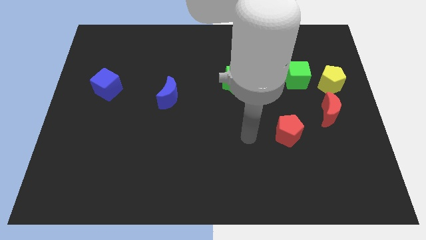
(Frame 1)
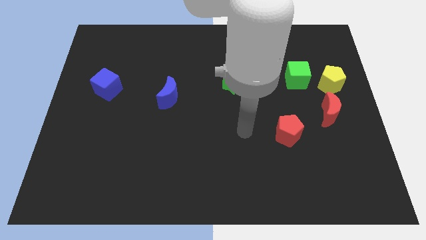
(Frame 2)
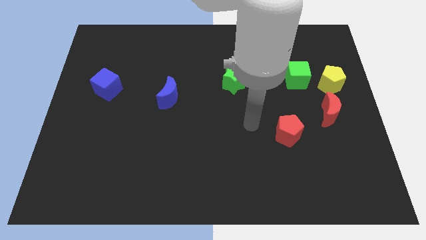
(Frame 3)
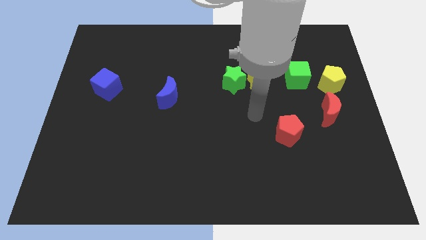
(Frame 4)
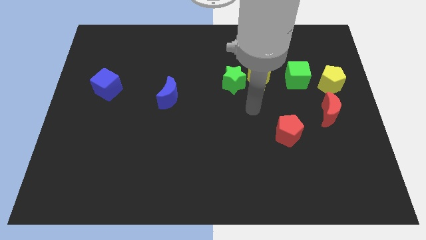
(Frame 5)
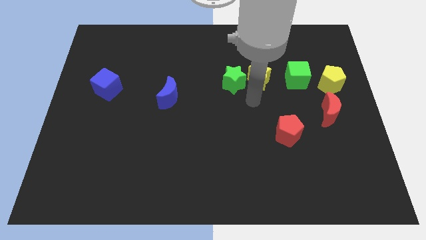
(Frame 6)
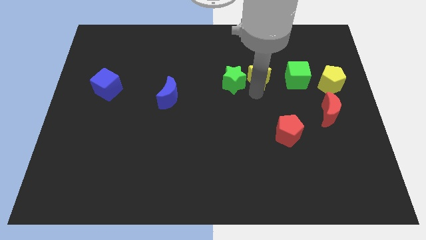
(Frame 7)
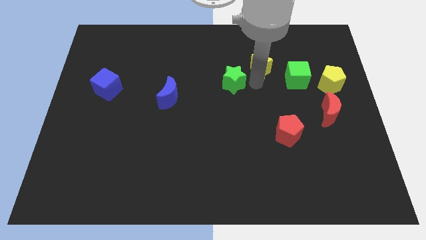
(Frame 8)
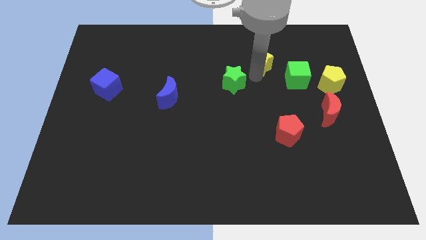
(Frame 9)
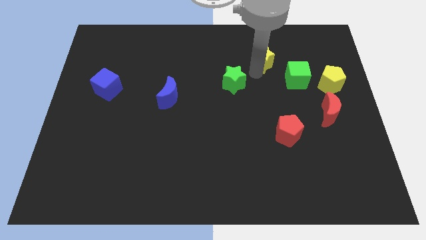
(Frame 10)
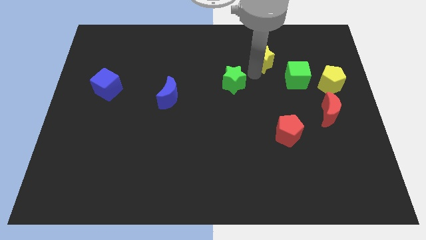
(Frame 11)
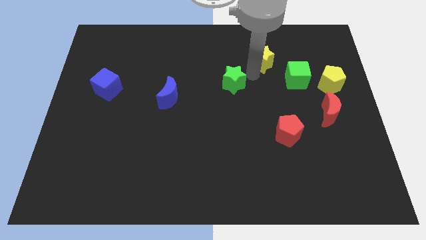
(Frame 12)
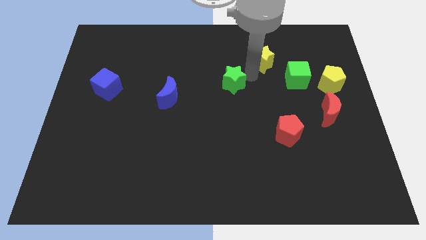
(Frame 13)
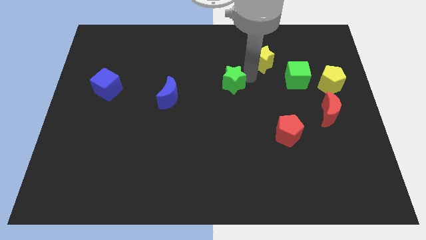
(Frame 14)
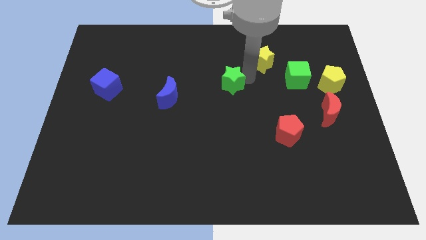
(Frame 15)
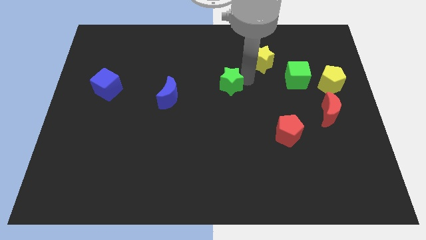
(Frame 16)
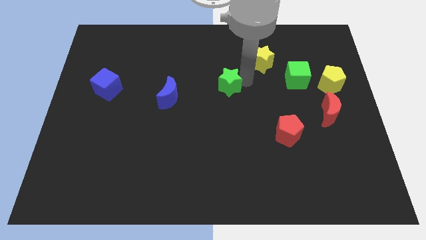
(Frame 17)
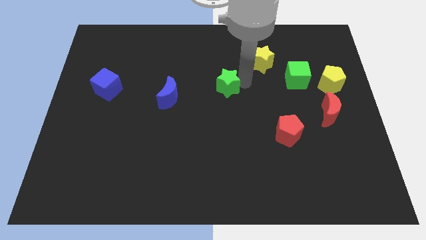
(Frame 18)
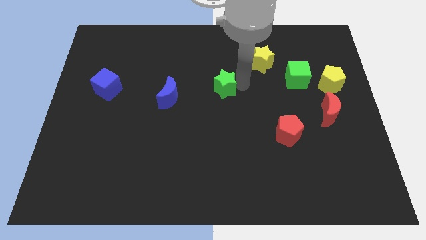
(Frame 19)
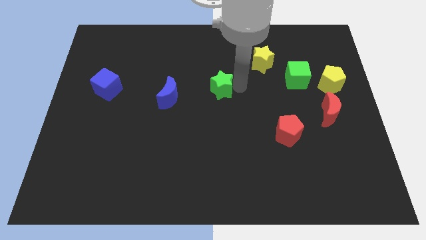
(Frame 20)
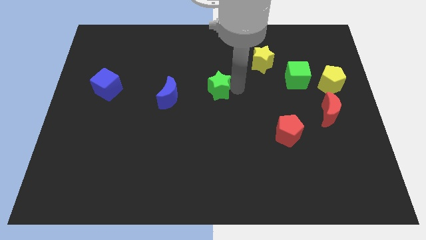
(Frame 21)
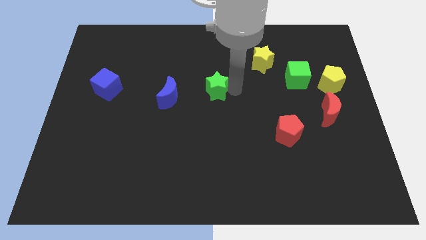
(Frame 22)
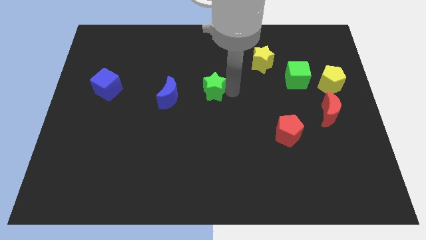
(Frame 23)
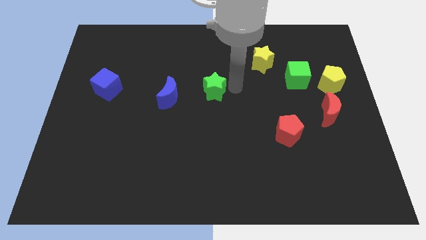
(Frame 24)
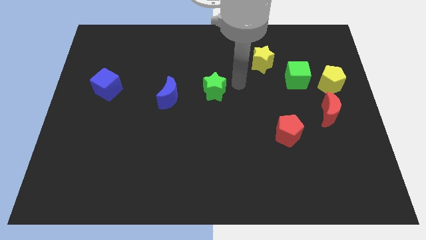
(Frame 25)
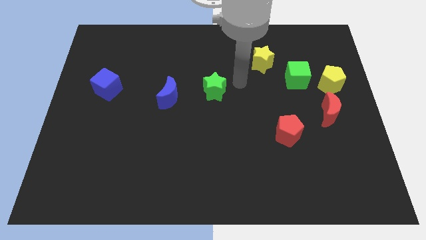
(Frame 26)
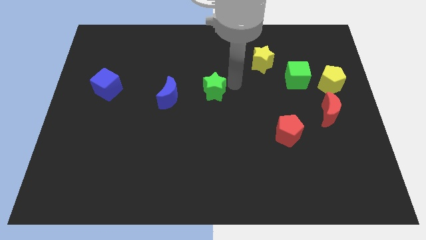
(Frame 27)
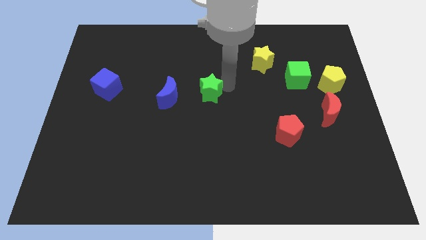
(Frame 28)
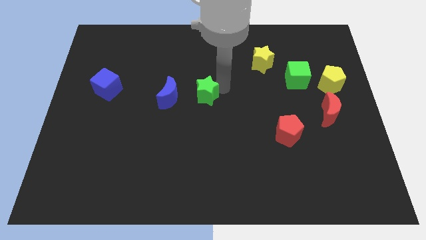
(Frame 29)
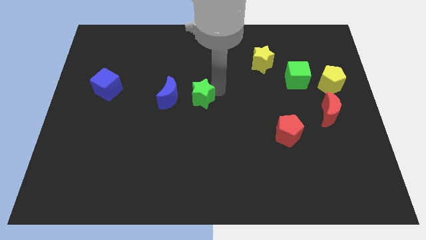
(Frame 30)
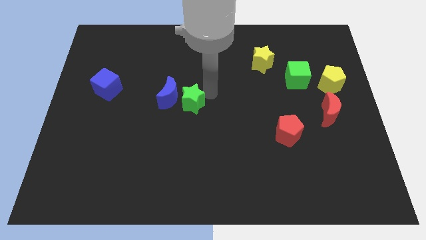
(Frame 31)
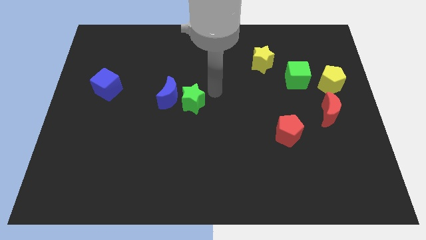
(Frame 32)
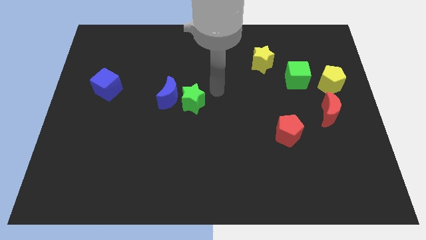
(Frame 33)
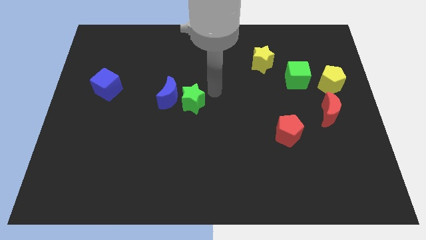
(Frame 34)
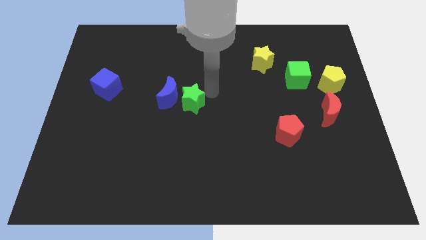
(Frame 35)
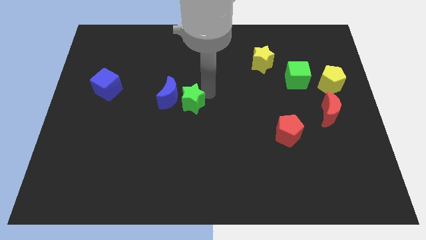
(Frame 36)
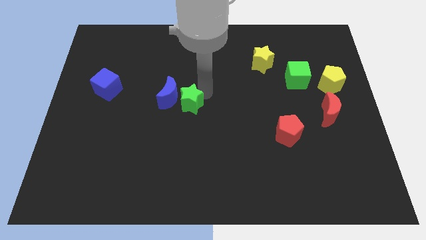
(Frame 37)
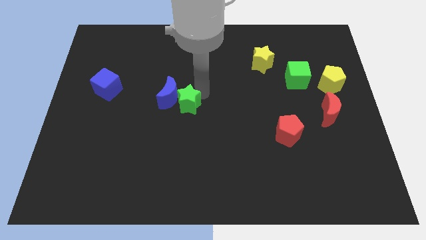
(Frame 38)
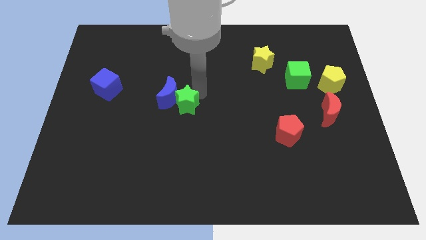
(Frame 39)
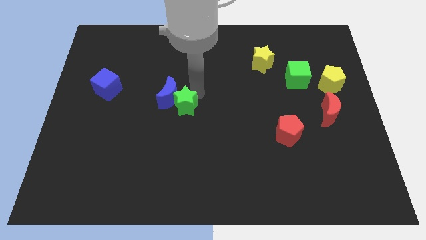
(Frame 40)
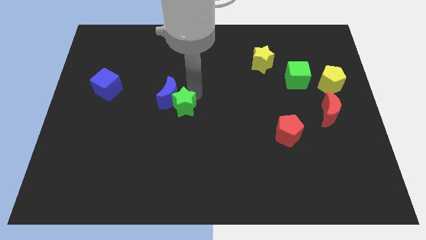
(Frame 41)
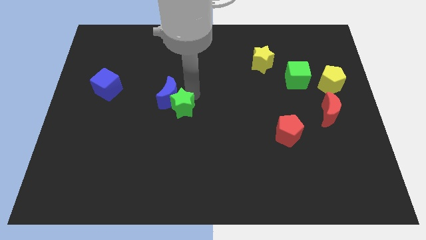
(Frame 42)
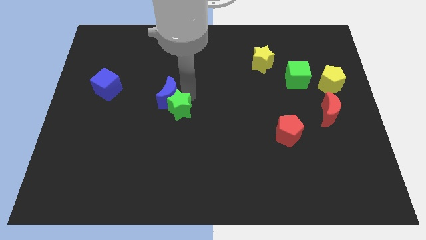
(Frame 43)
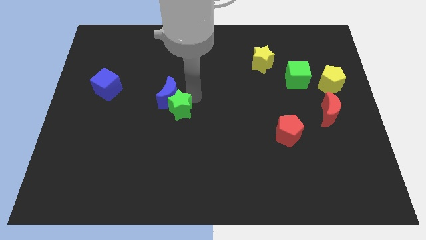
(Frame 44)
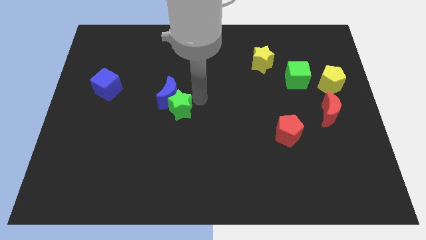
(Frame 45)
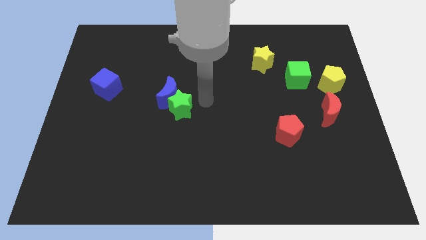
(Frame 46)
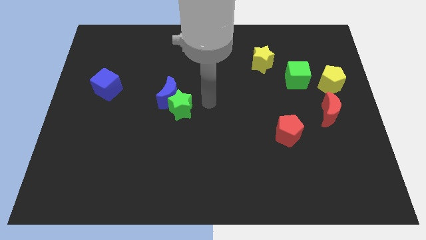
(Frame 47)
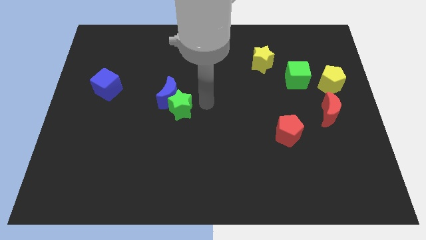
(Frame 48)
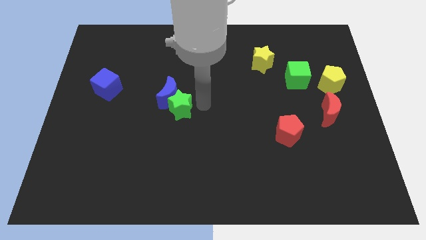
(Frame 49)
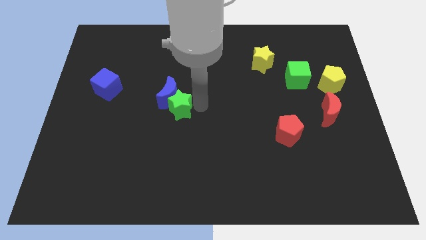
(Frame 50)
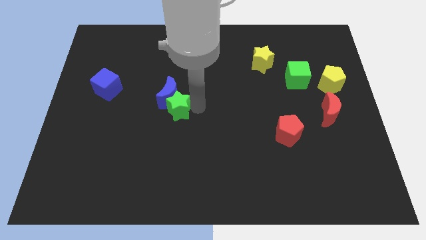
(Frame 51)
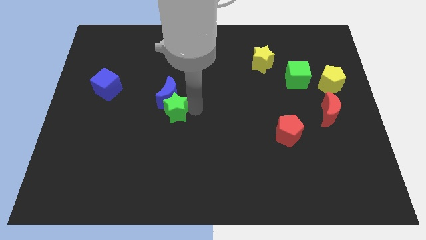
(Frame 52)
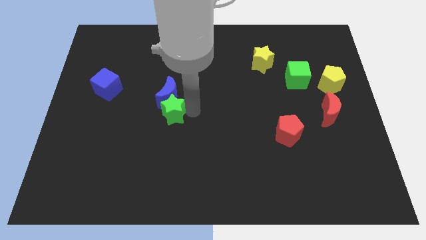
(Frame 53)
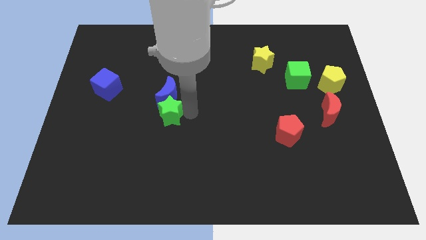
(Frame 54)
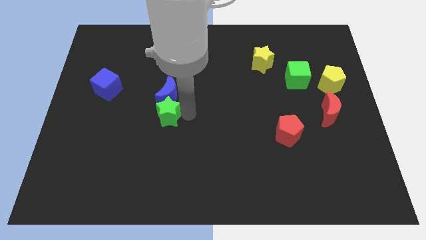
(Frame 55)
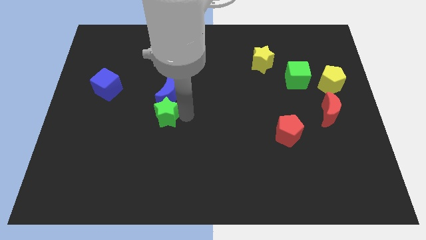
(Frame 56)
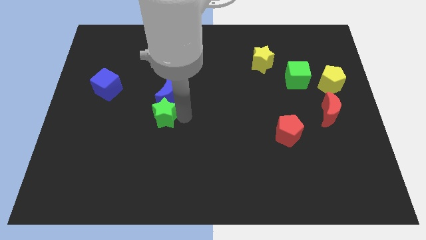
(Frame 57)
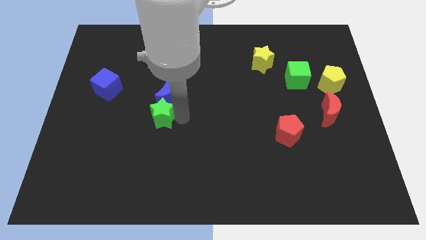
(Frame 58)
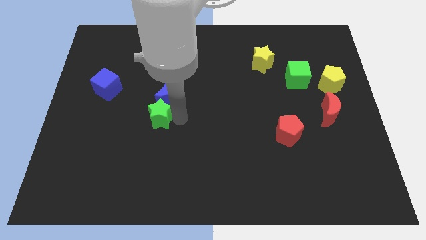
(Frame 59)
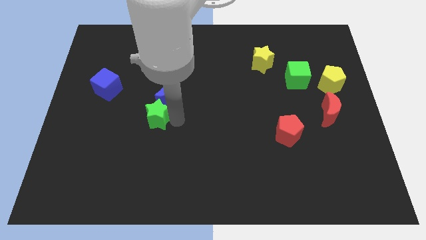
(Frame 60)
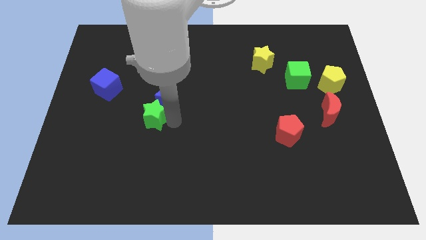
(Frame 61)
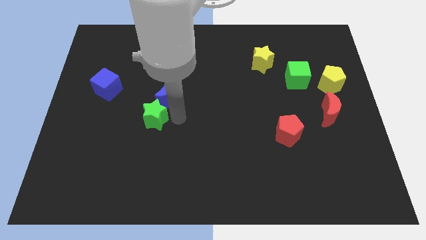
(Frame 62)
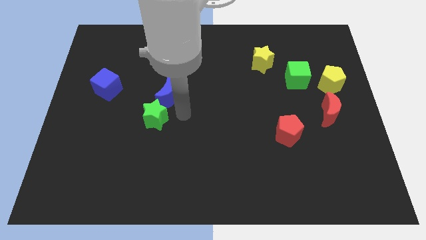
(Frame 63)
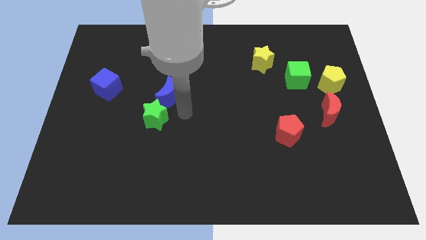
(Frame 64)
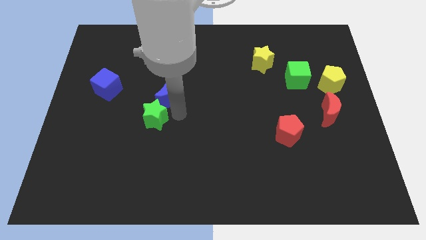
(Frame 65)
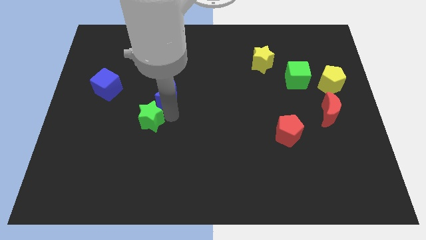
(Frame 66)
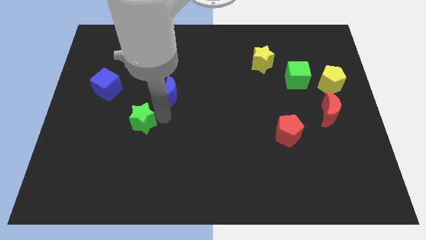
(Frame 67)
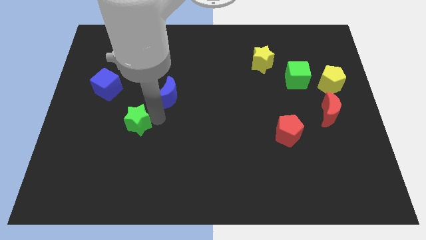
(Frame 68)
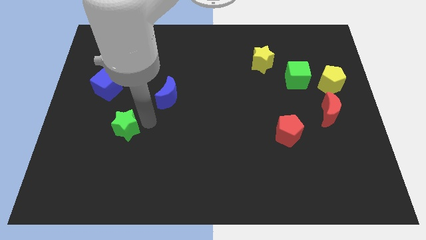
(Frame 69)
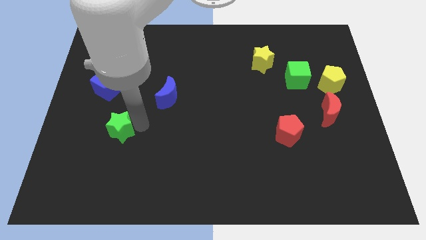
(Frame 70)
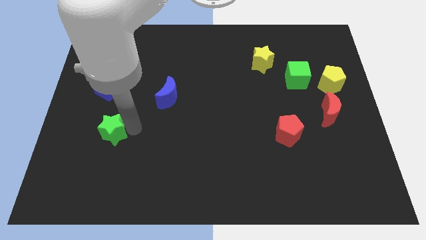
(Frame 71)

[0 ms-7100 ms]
move the green star to the bottom side of the blue cube
